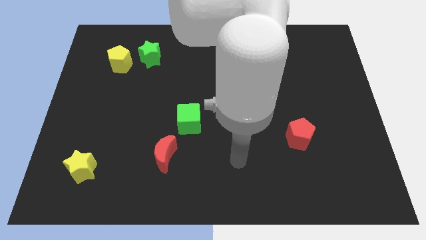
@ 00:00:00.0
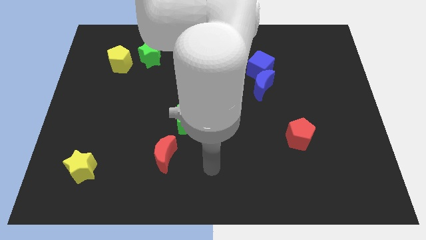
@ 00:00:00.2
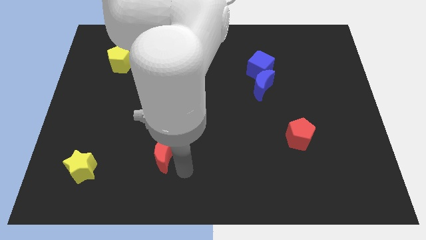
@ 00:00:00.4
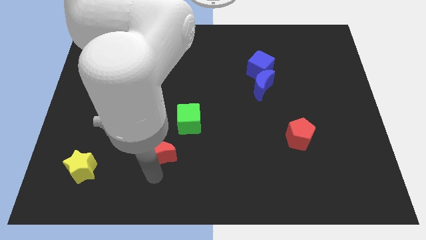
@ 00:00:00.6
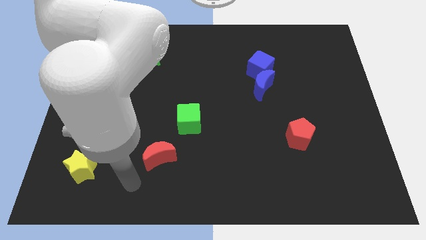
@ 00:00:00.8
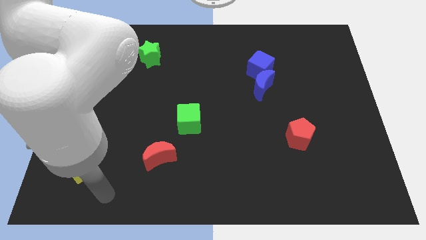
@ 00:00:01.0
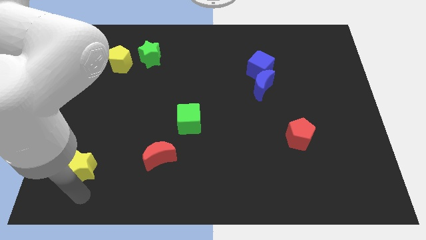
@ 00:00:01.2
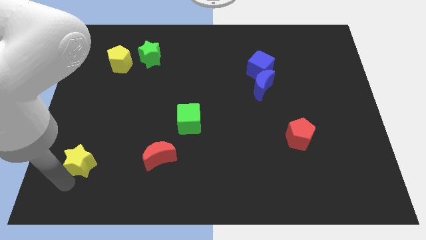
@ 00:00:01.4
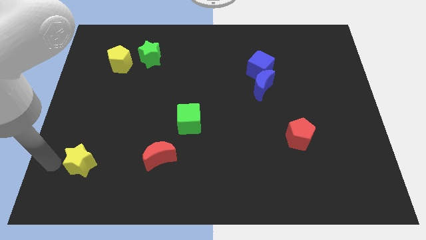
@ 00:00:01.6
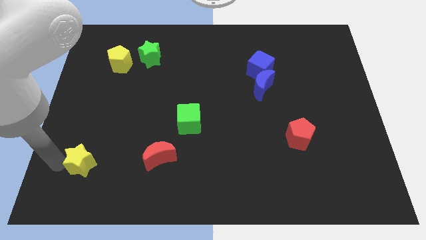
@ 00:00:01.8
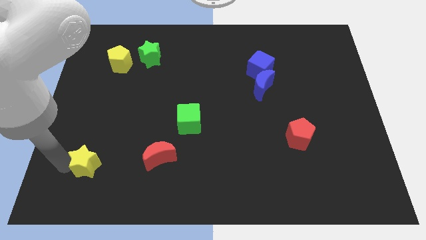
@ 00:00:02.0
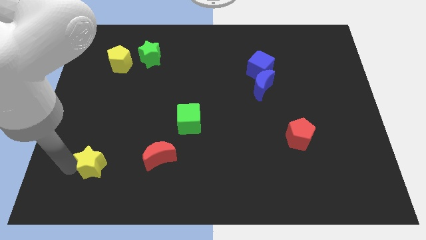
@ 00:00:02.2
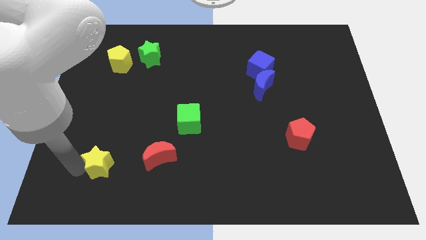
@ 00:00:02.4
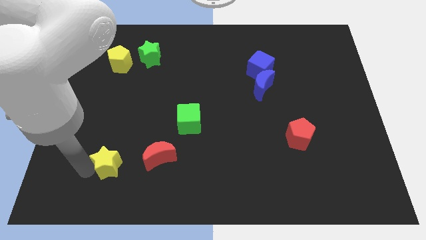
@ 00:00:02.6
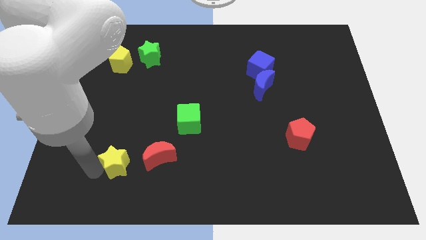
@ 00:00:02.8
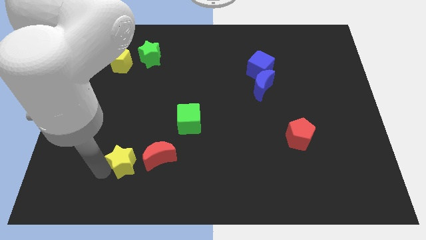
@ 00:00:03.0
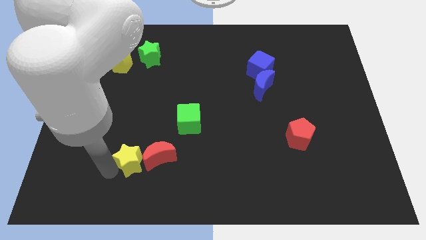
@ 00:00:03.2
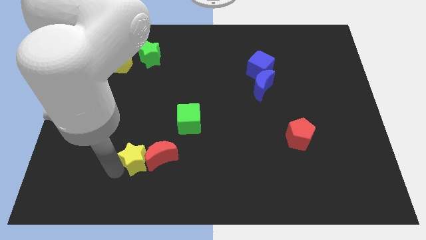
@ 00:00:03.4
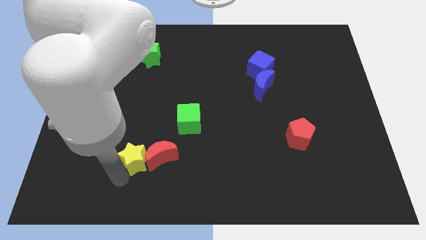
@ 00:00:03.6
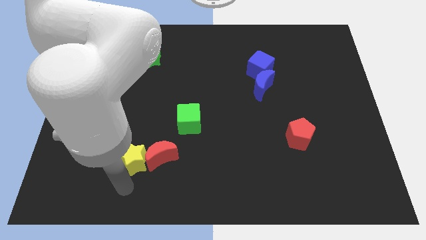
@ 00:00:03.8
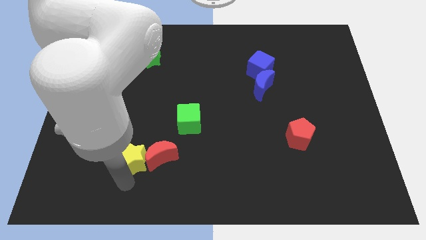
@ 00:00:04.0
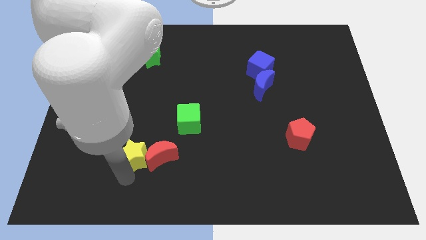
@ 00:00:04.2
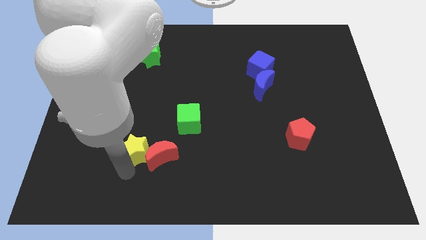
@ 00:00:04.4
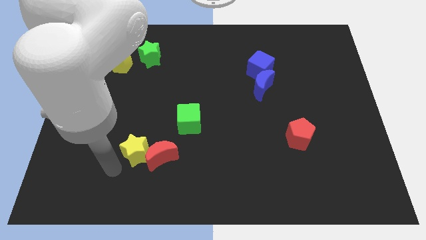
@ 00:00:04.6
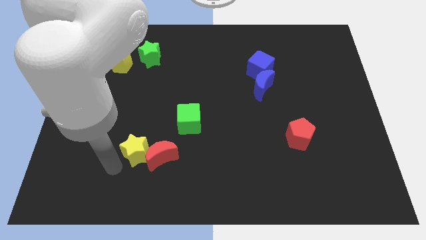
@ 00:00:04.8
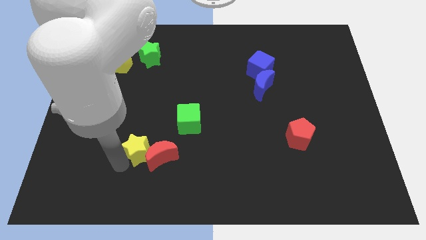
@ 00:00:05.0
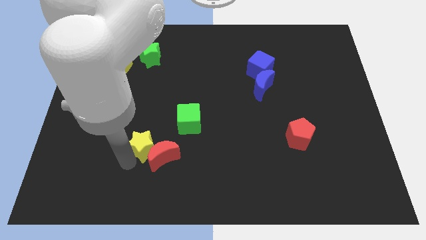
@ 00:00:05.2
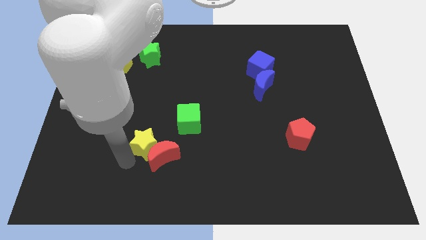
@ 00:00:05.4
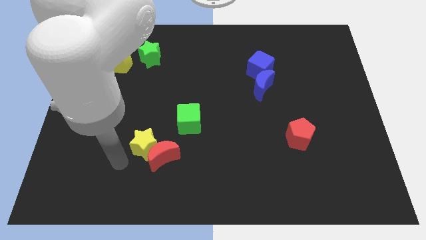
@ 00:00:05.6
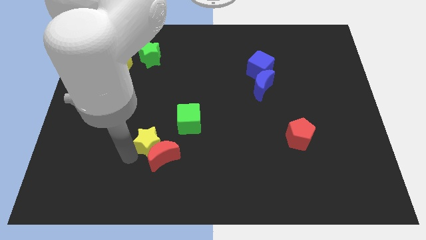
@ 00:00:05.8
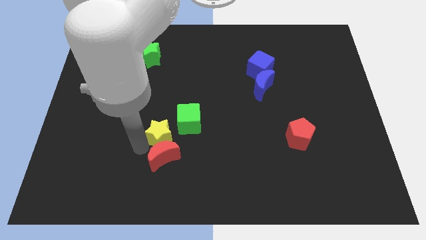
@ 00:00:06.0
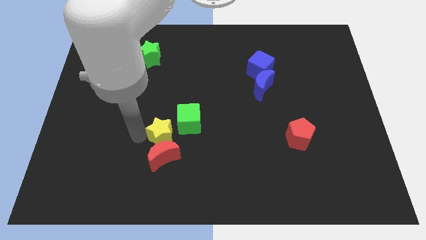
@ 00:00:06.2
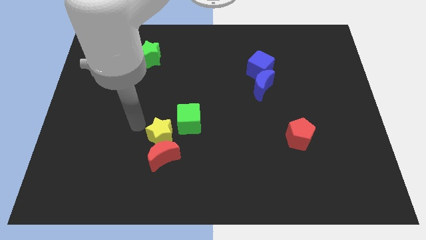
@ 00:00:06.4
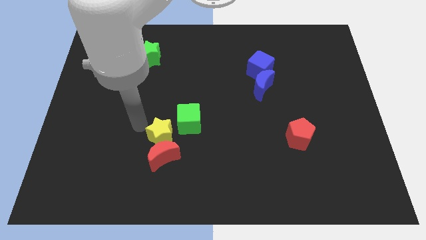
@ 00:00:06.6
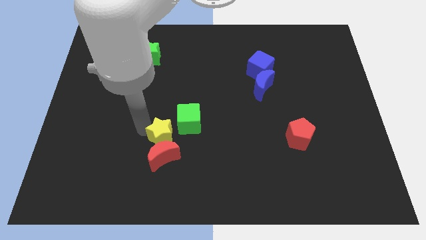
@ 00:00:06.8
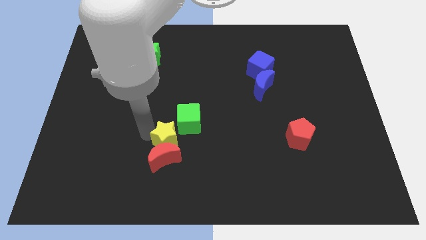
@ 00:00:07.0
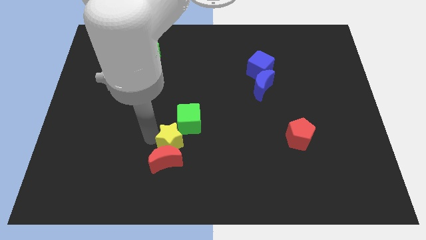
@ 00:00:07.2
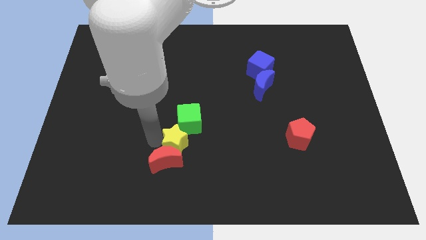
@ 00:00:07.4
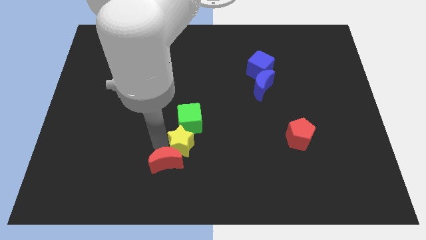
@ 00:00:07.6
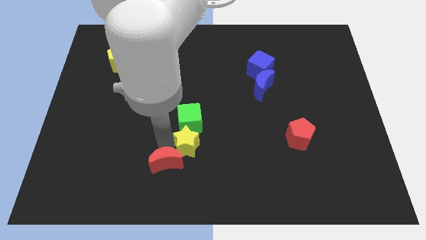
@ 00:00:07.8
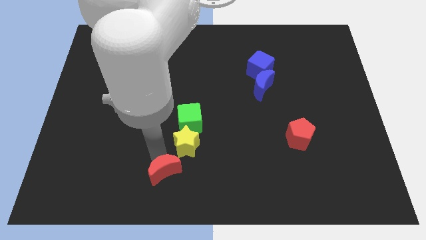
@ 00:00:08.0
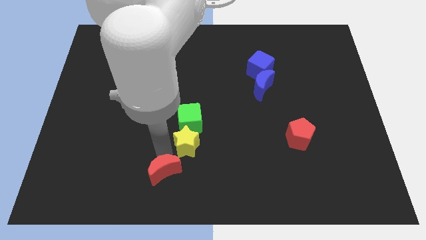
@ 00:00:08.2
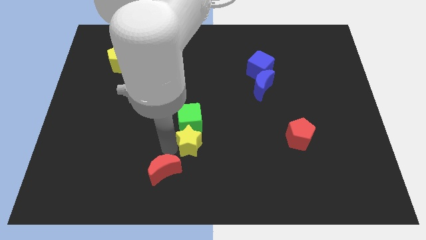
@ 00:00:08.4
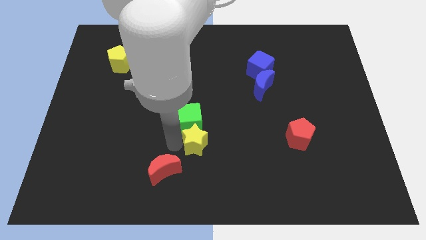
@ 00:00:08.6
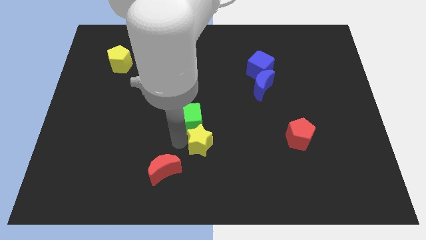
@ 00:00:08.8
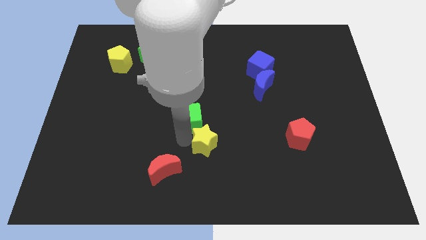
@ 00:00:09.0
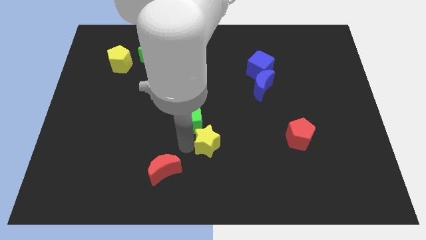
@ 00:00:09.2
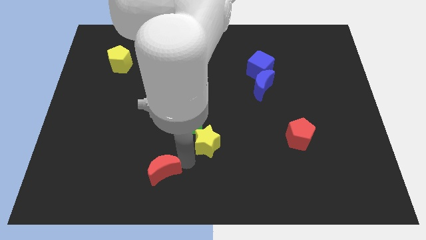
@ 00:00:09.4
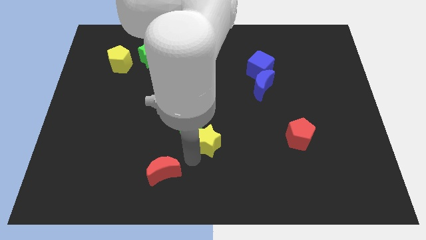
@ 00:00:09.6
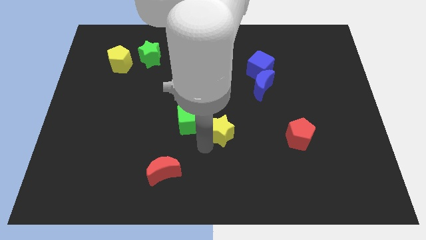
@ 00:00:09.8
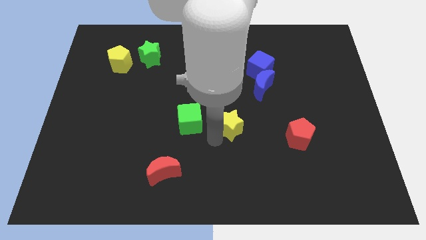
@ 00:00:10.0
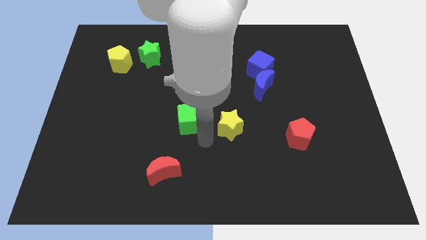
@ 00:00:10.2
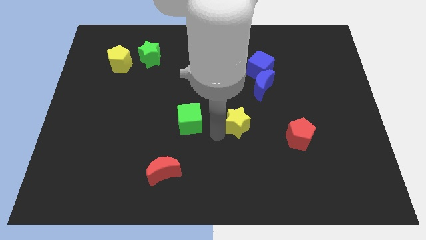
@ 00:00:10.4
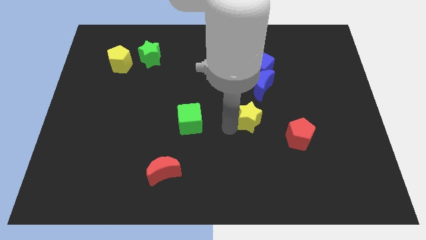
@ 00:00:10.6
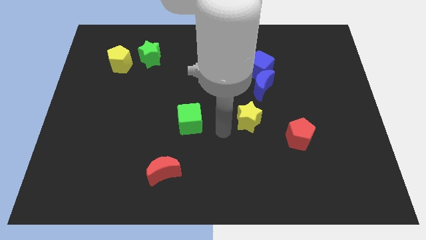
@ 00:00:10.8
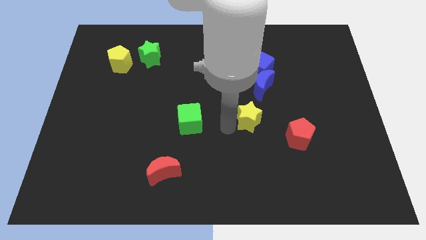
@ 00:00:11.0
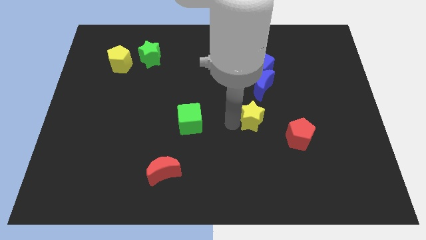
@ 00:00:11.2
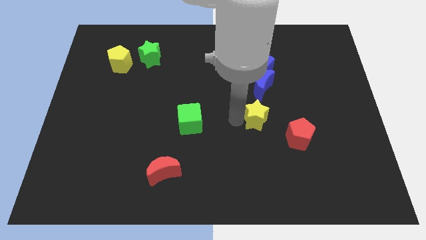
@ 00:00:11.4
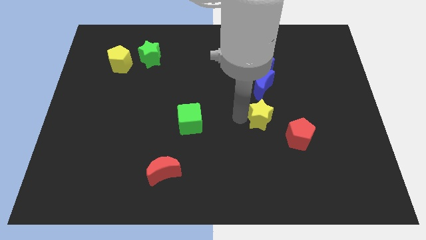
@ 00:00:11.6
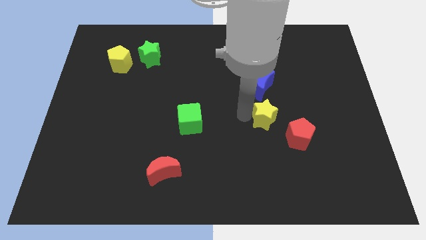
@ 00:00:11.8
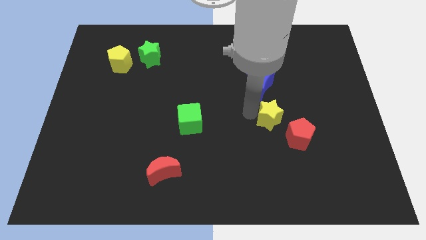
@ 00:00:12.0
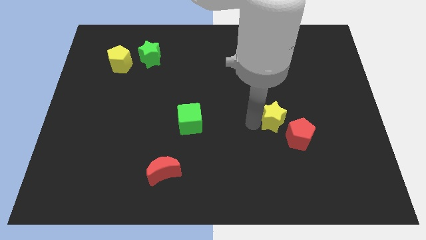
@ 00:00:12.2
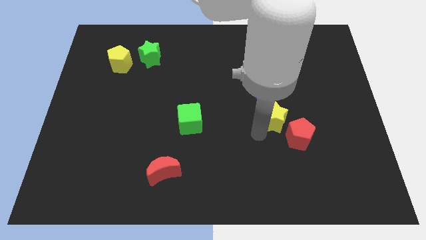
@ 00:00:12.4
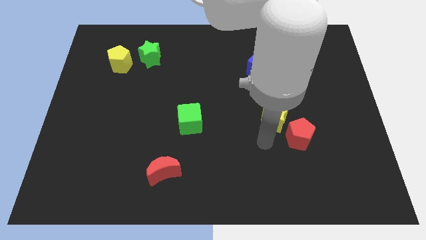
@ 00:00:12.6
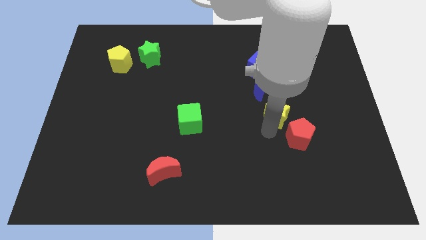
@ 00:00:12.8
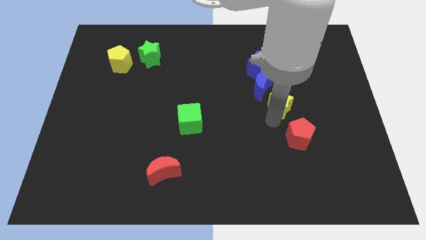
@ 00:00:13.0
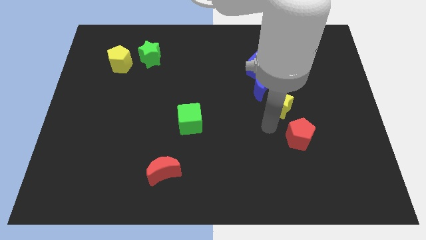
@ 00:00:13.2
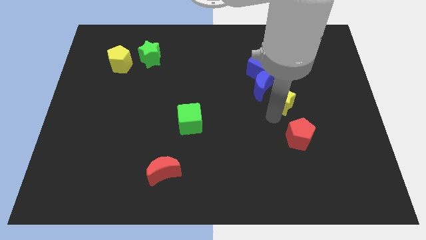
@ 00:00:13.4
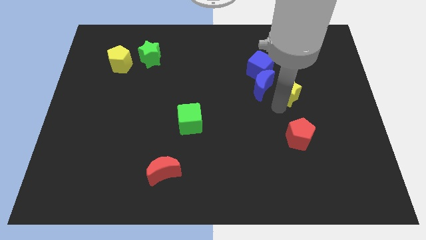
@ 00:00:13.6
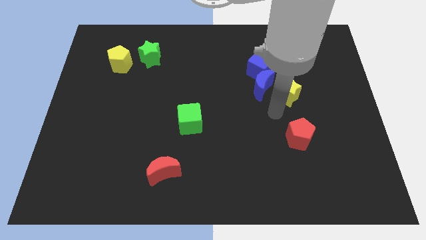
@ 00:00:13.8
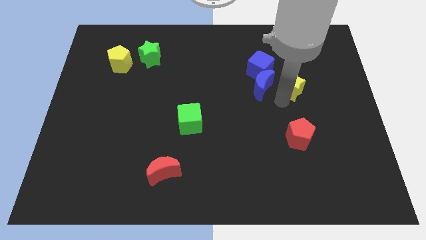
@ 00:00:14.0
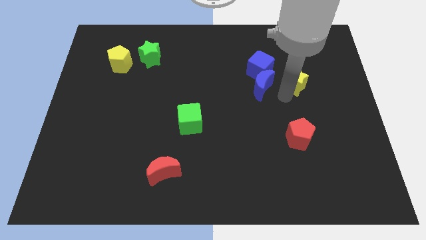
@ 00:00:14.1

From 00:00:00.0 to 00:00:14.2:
push the yellow star to the right of the blue cube
